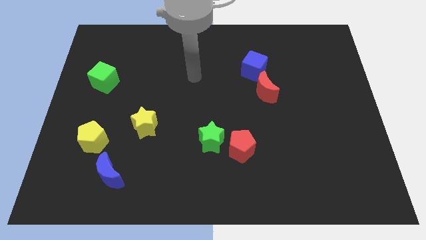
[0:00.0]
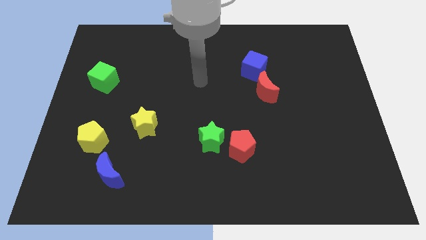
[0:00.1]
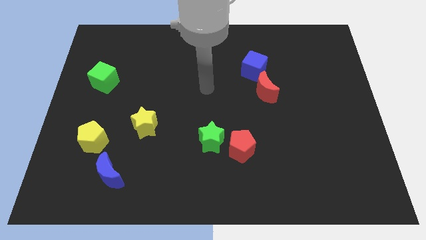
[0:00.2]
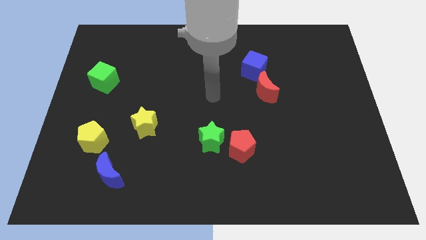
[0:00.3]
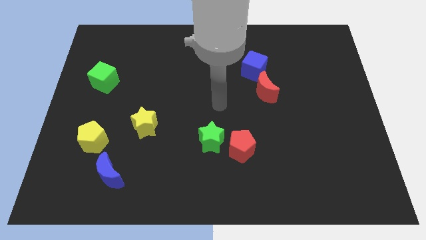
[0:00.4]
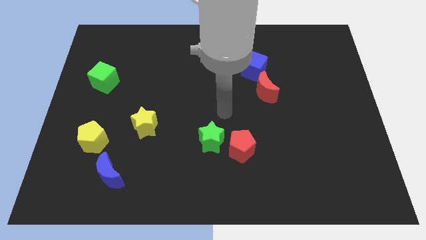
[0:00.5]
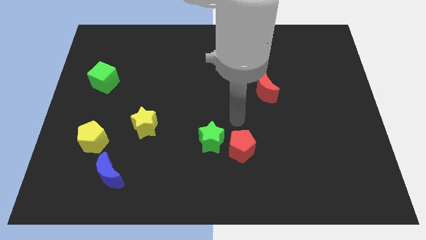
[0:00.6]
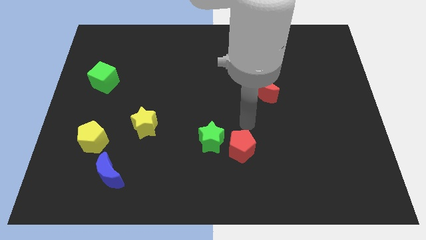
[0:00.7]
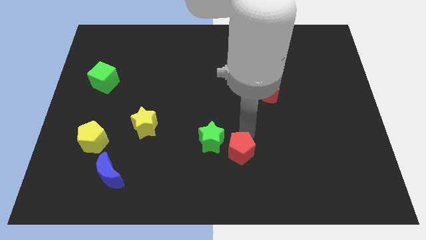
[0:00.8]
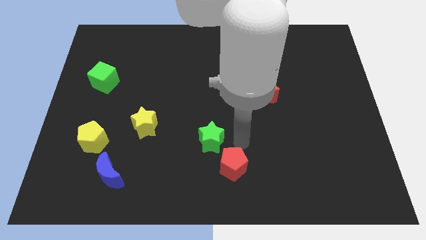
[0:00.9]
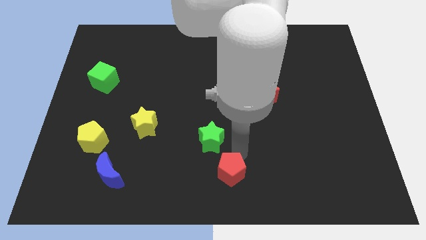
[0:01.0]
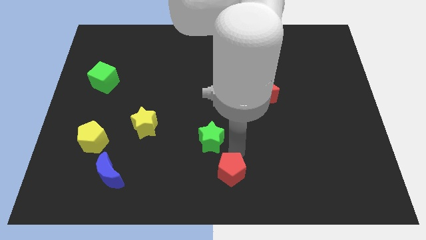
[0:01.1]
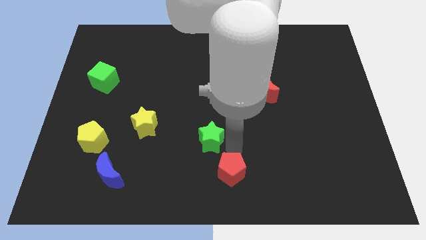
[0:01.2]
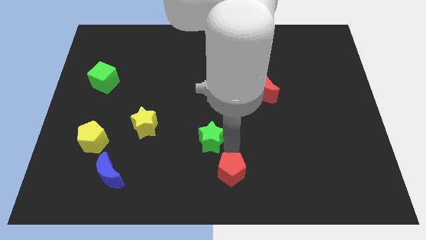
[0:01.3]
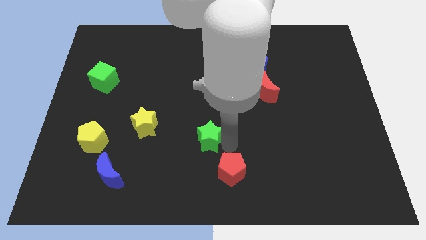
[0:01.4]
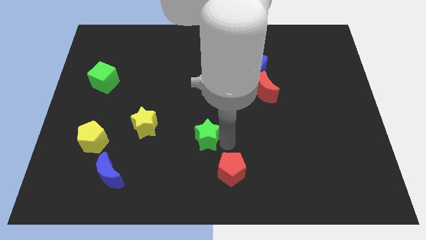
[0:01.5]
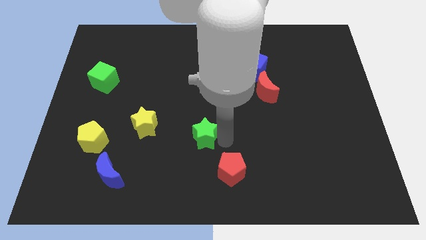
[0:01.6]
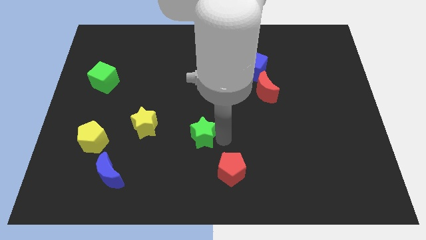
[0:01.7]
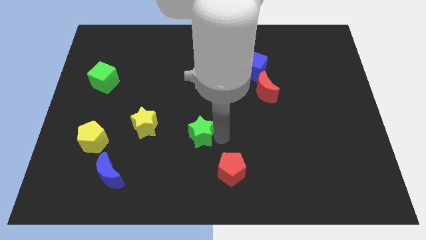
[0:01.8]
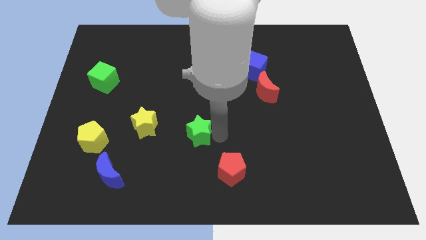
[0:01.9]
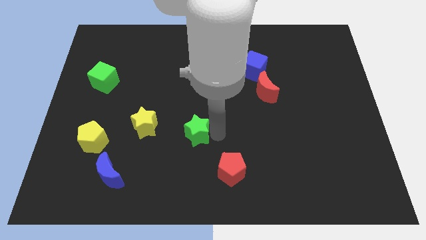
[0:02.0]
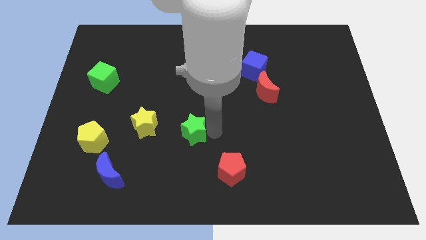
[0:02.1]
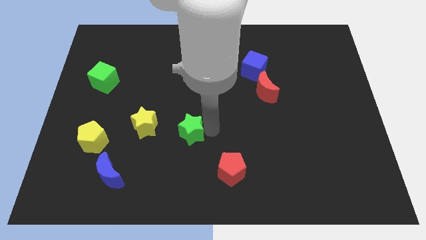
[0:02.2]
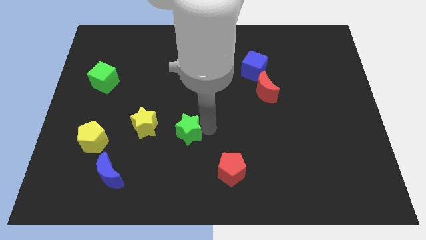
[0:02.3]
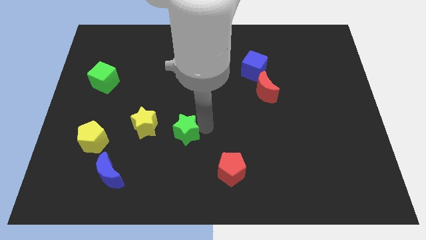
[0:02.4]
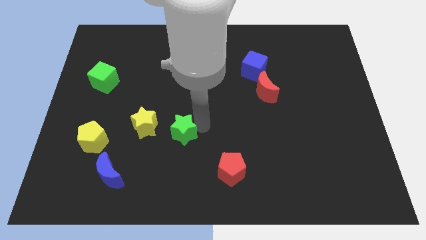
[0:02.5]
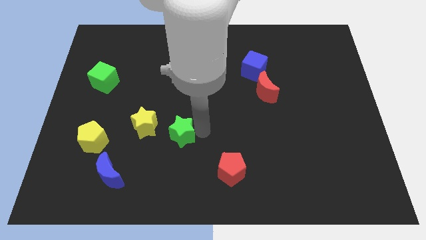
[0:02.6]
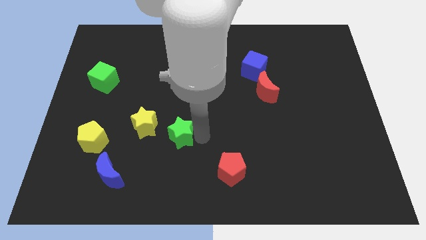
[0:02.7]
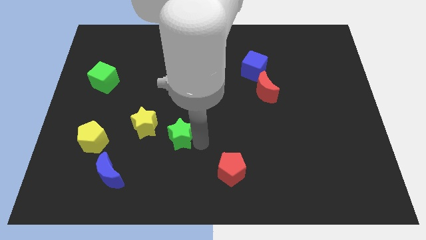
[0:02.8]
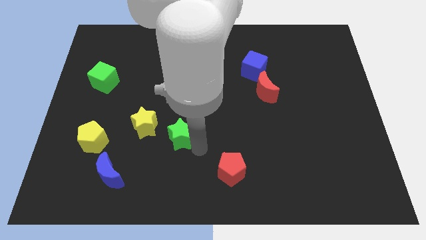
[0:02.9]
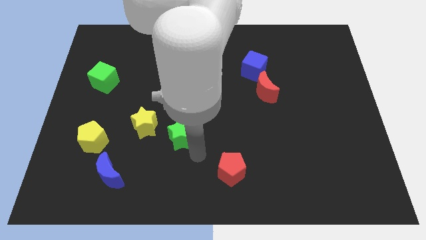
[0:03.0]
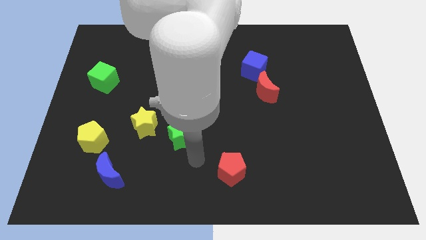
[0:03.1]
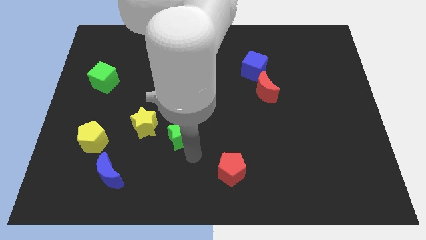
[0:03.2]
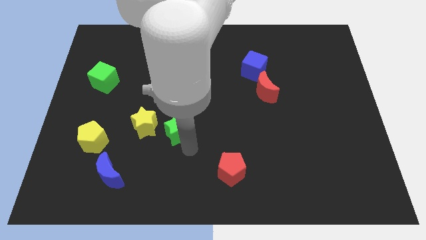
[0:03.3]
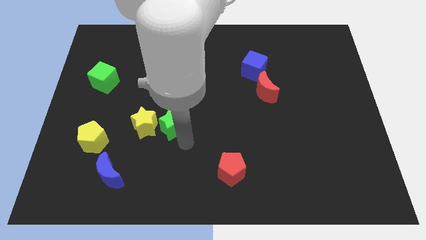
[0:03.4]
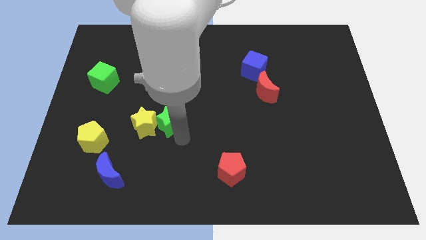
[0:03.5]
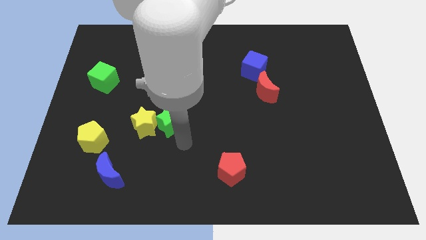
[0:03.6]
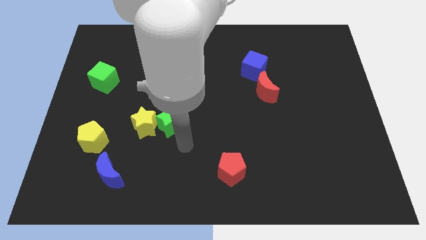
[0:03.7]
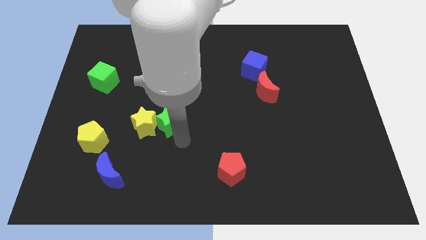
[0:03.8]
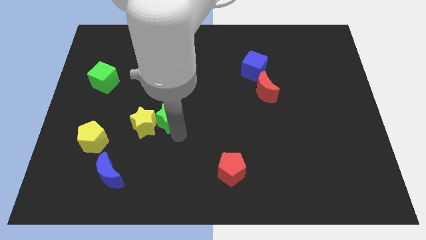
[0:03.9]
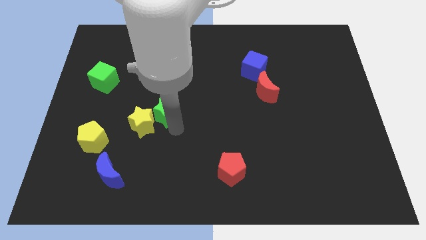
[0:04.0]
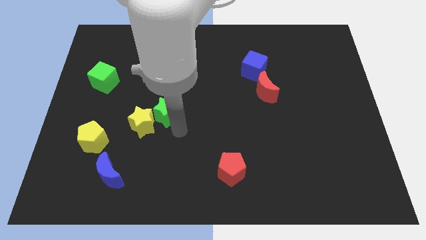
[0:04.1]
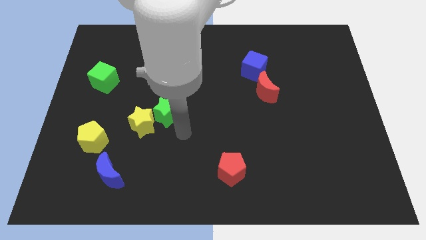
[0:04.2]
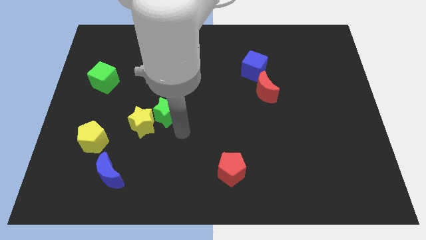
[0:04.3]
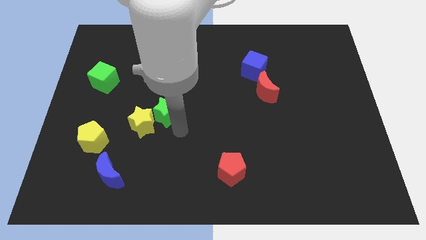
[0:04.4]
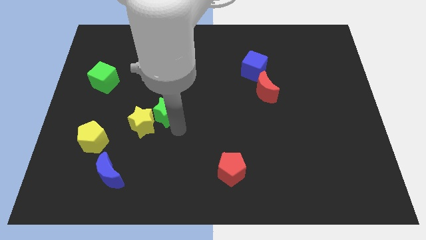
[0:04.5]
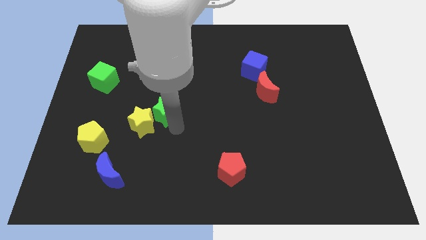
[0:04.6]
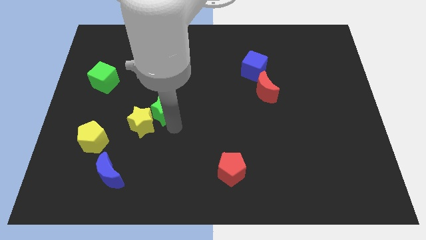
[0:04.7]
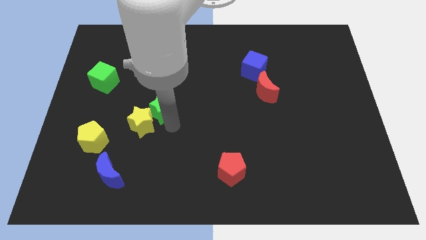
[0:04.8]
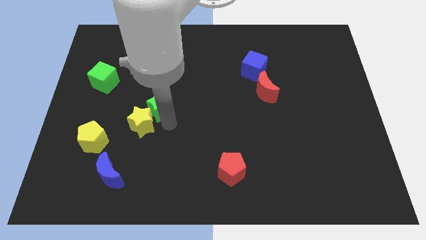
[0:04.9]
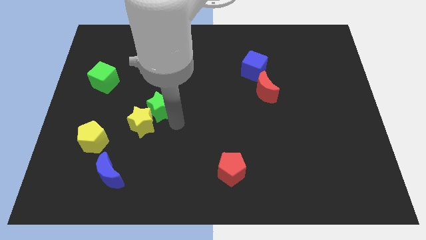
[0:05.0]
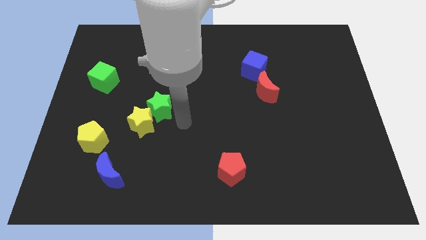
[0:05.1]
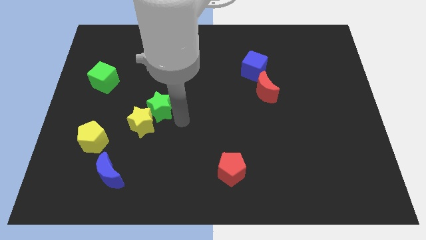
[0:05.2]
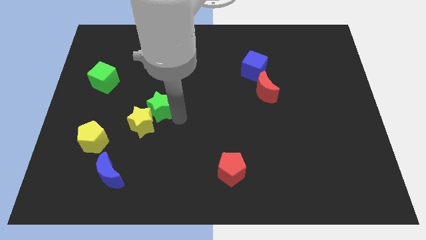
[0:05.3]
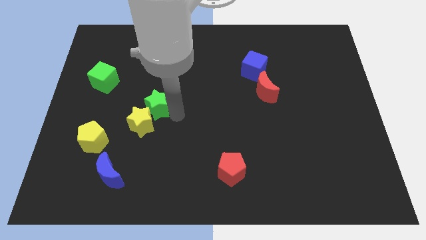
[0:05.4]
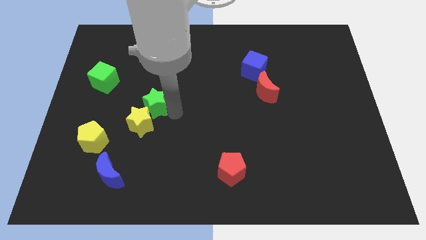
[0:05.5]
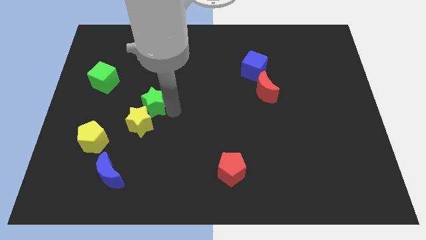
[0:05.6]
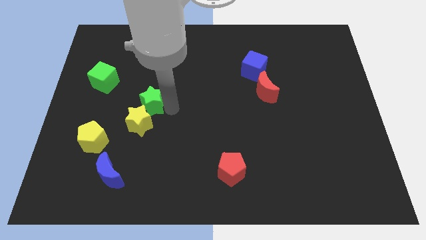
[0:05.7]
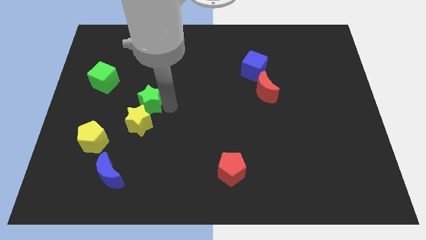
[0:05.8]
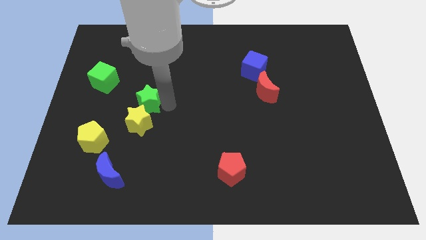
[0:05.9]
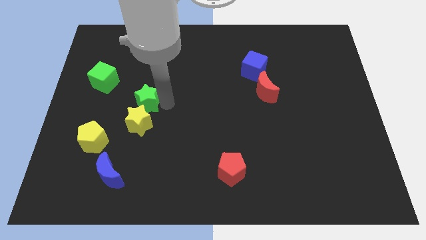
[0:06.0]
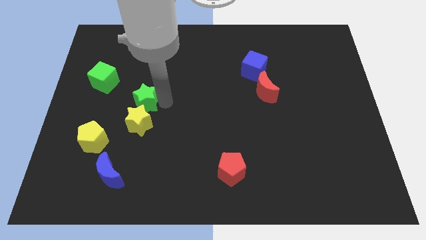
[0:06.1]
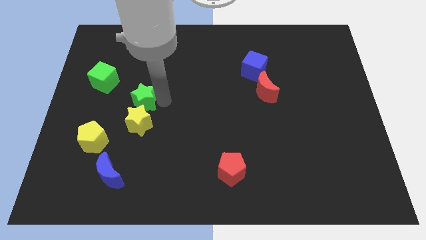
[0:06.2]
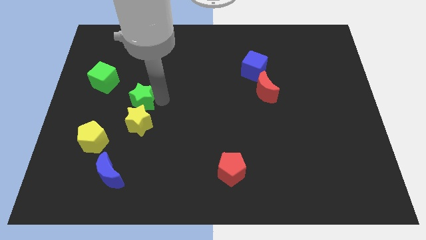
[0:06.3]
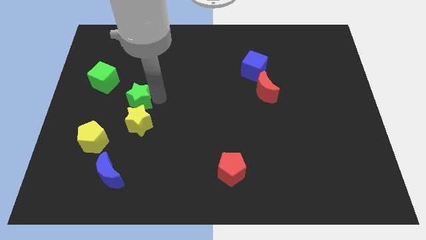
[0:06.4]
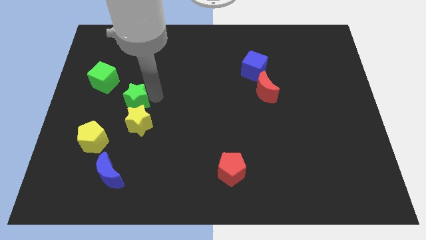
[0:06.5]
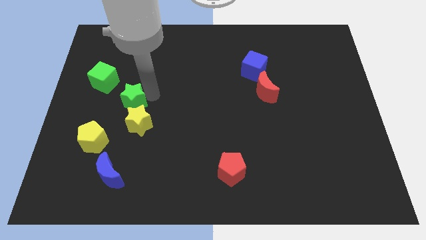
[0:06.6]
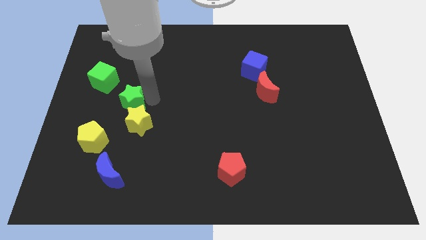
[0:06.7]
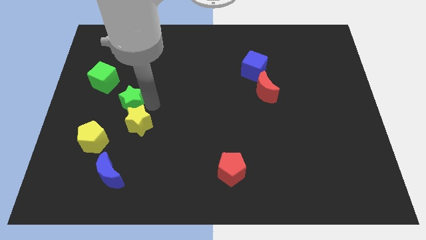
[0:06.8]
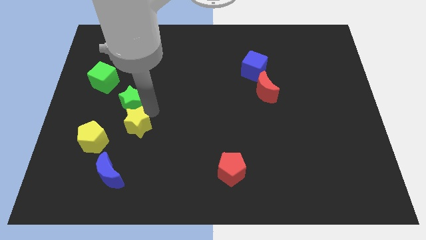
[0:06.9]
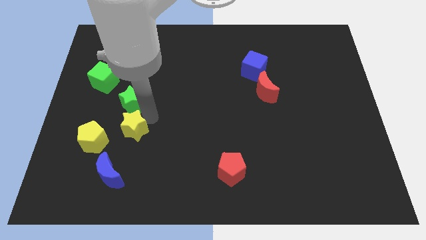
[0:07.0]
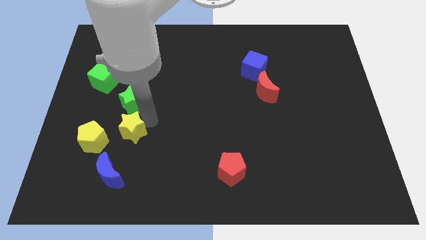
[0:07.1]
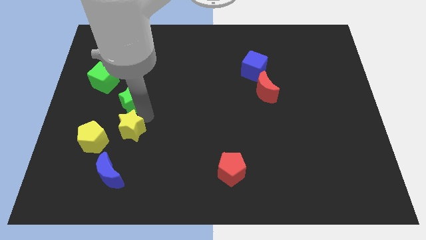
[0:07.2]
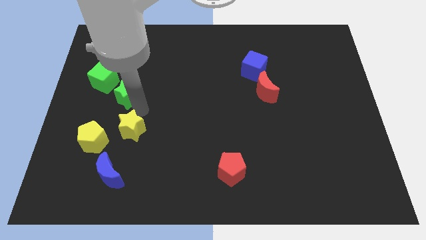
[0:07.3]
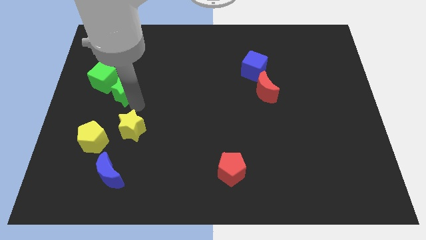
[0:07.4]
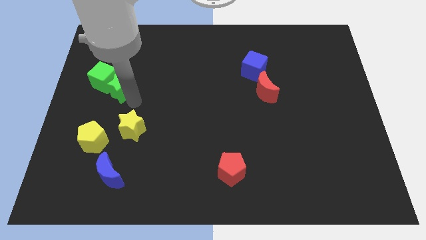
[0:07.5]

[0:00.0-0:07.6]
move the green star next to the green cube
